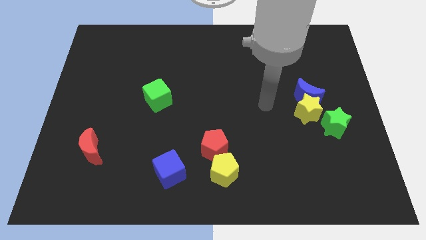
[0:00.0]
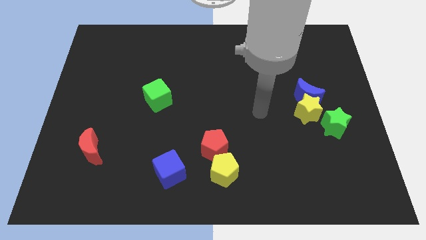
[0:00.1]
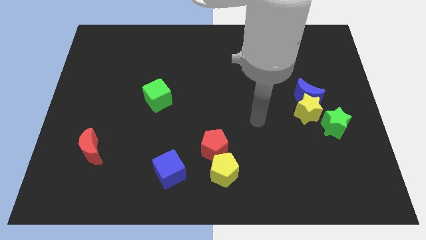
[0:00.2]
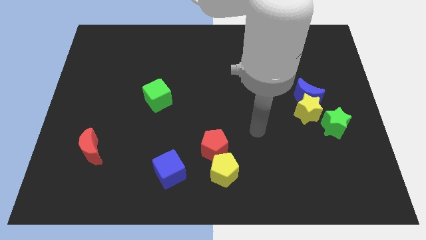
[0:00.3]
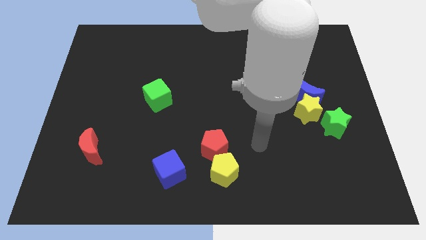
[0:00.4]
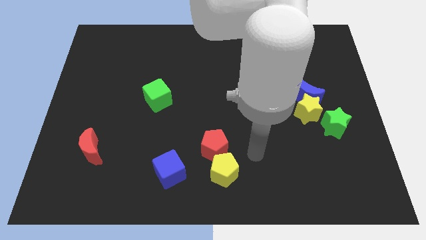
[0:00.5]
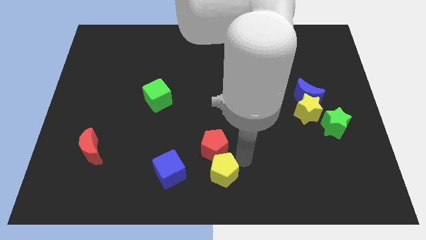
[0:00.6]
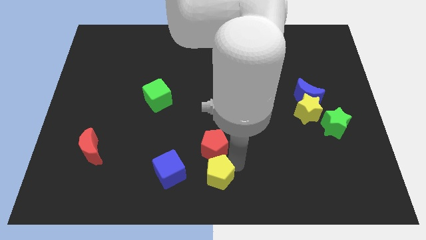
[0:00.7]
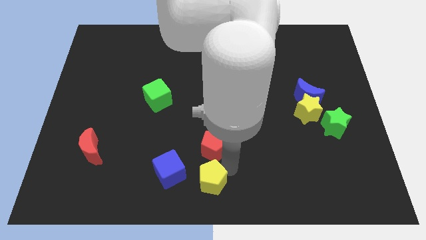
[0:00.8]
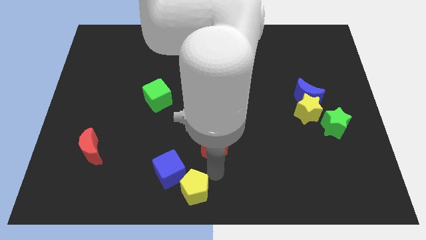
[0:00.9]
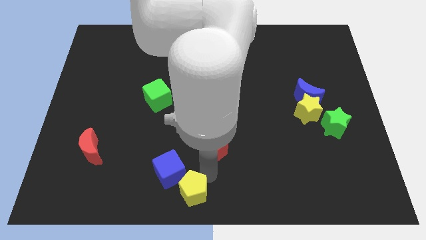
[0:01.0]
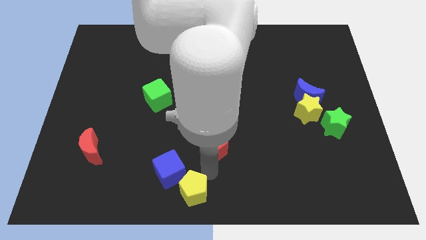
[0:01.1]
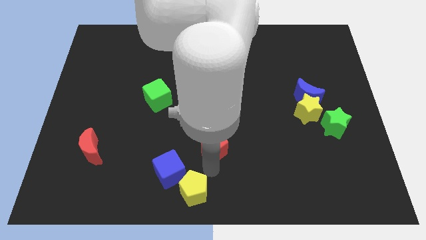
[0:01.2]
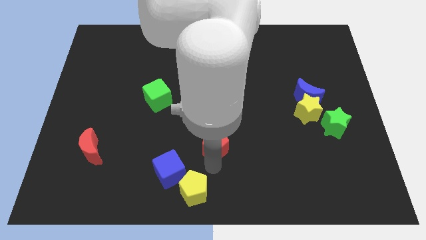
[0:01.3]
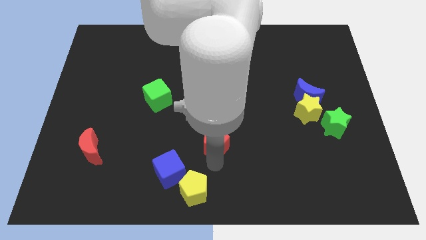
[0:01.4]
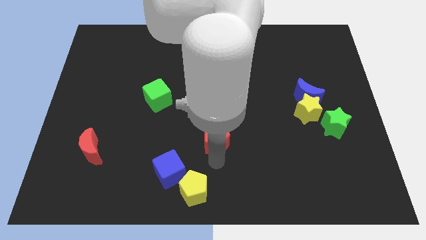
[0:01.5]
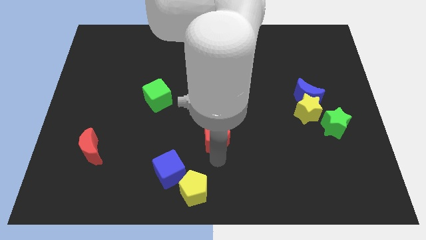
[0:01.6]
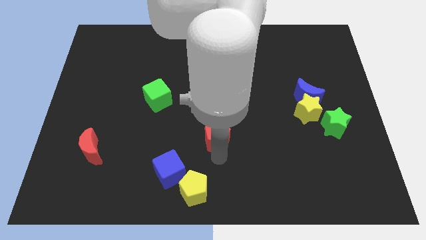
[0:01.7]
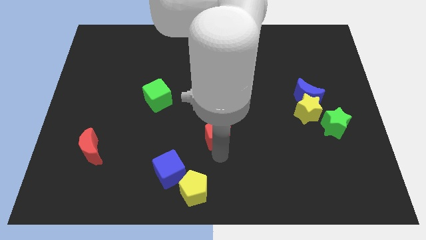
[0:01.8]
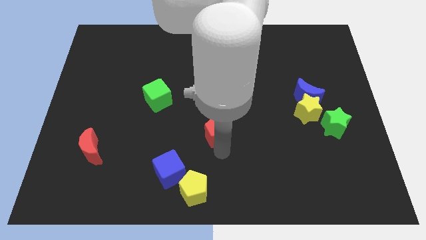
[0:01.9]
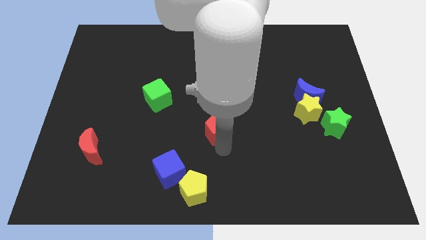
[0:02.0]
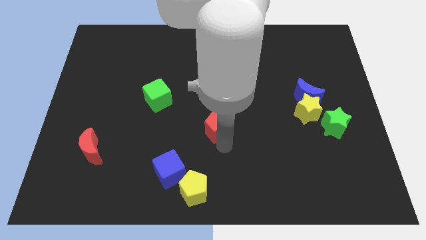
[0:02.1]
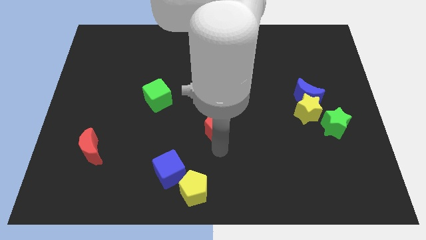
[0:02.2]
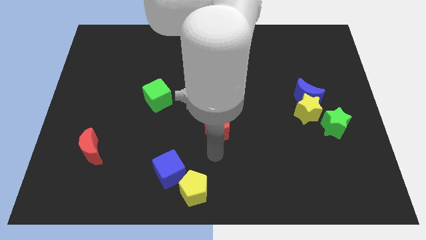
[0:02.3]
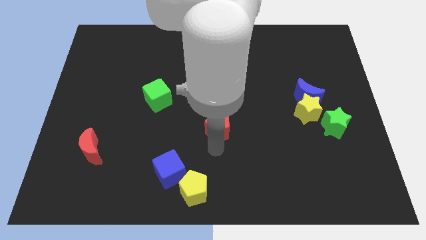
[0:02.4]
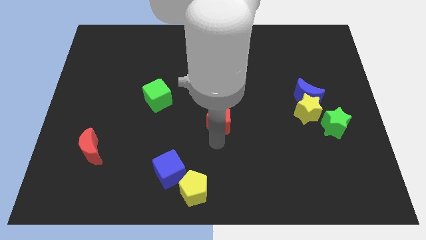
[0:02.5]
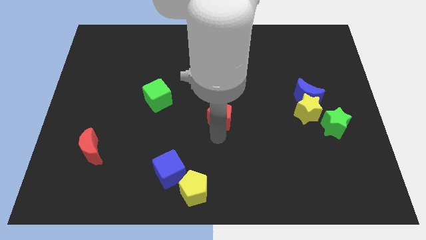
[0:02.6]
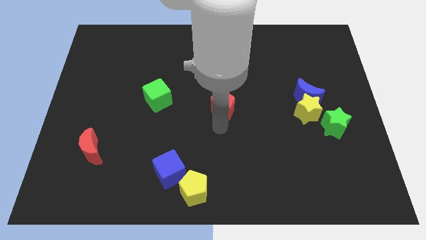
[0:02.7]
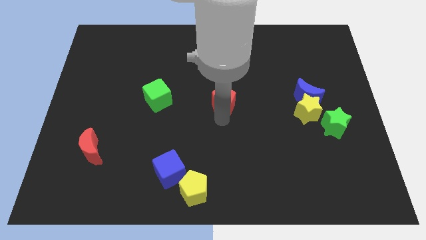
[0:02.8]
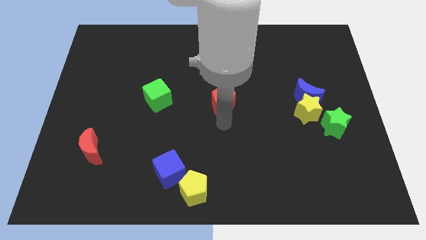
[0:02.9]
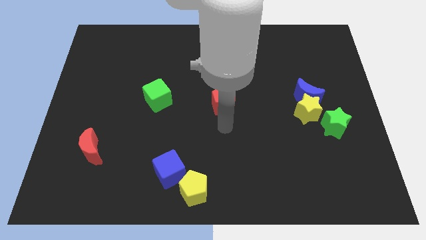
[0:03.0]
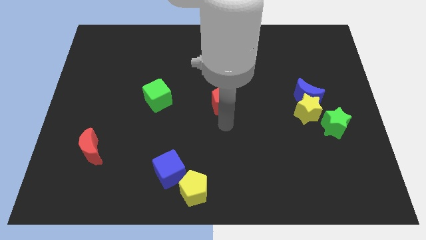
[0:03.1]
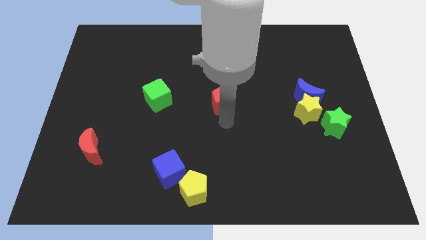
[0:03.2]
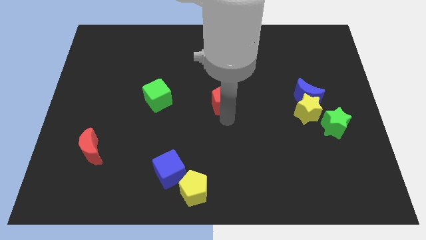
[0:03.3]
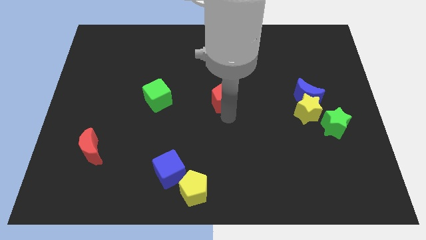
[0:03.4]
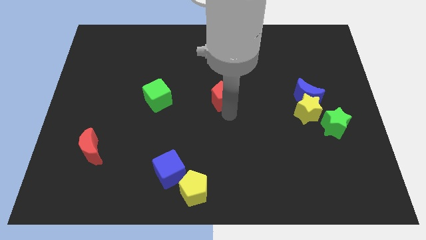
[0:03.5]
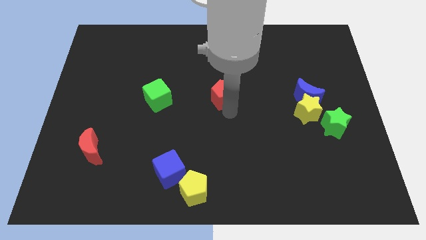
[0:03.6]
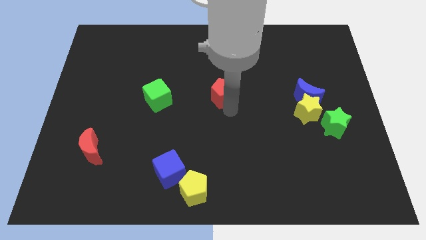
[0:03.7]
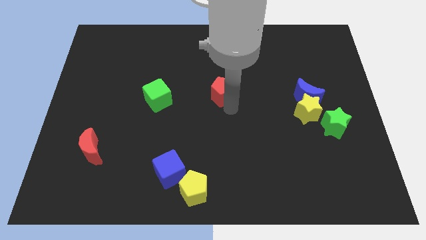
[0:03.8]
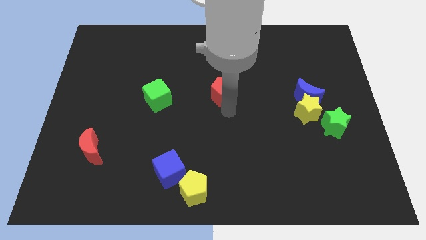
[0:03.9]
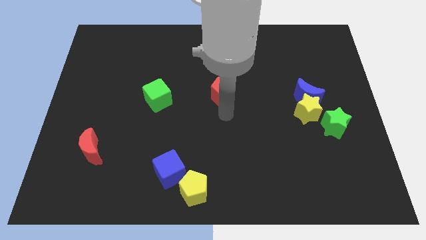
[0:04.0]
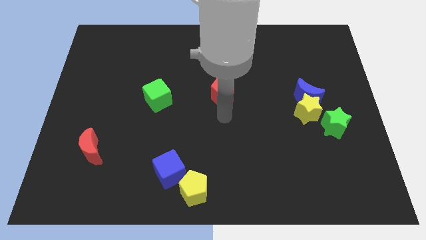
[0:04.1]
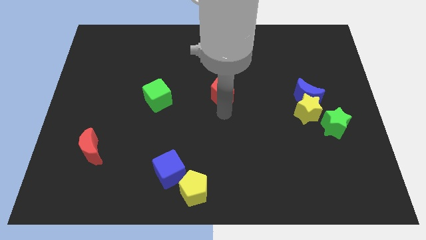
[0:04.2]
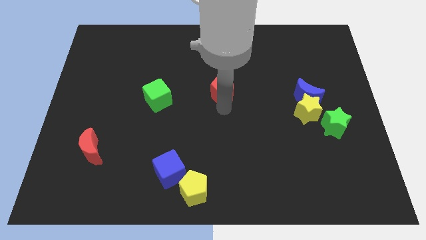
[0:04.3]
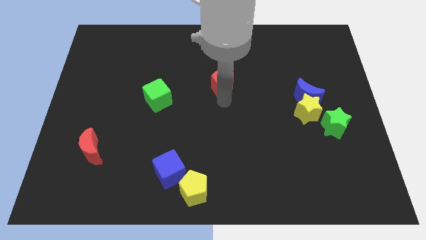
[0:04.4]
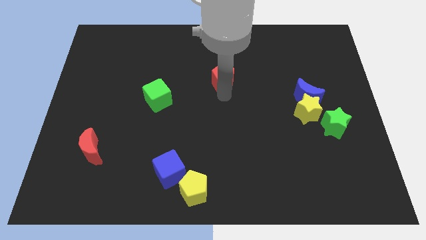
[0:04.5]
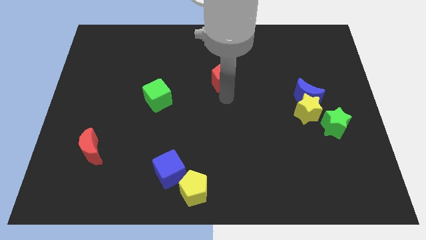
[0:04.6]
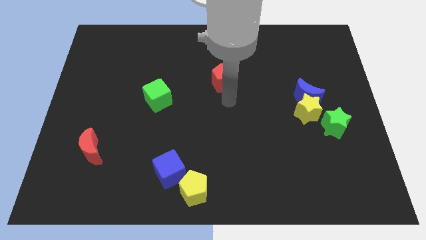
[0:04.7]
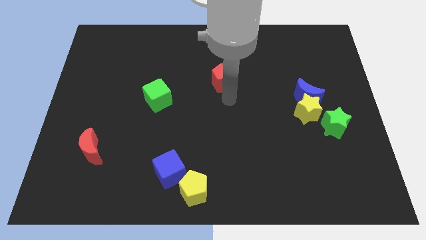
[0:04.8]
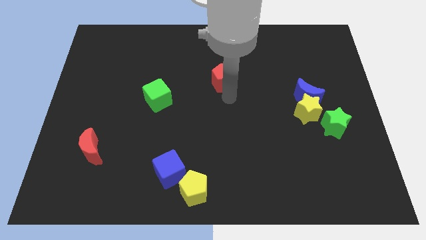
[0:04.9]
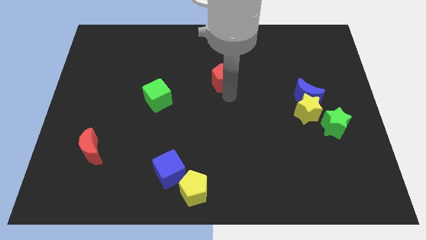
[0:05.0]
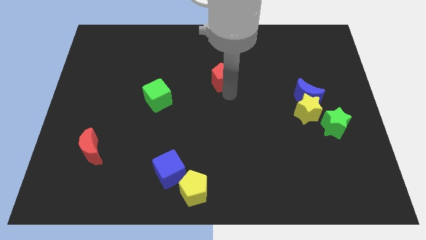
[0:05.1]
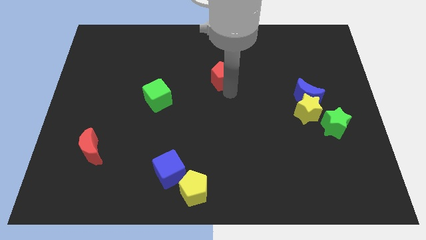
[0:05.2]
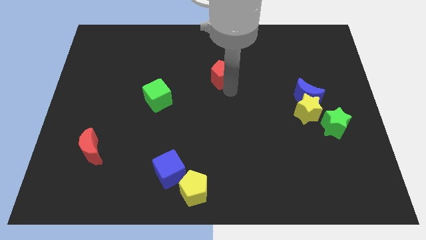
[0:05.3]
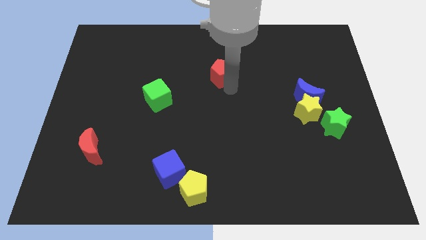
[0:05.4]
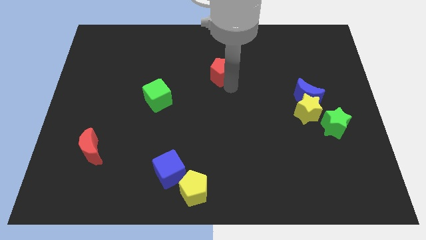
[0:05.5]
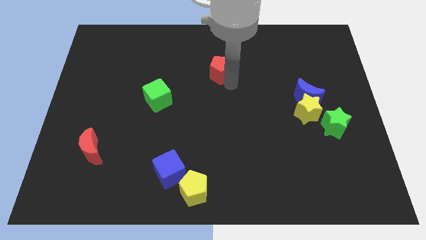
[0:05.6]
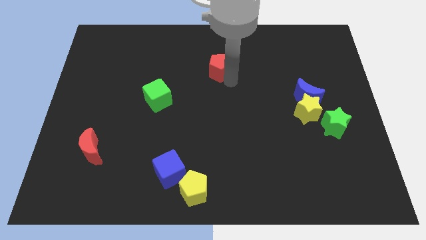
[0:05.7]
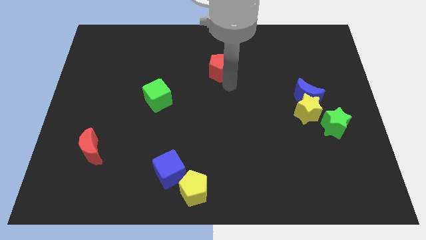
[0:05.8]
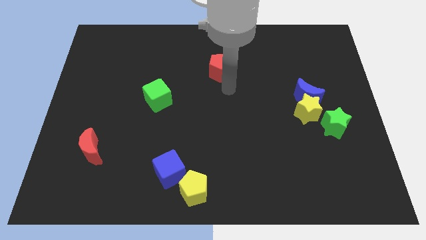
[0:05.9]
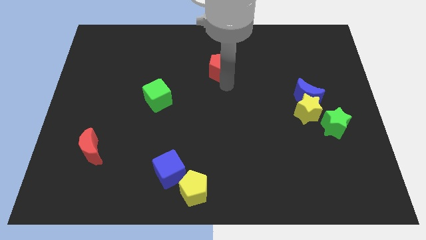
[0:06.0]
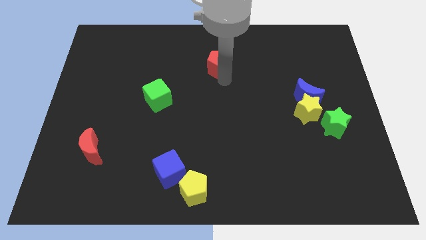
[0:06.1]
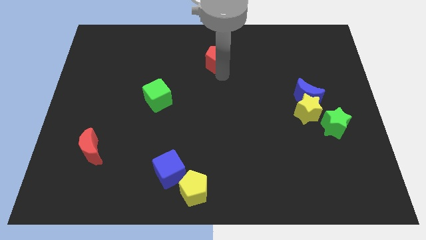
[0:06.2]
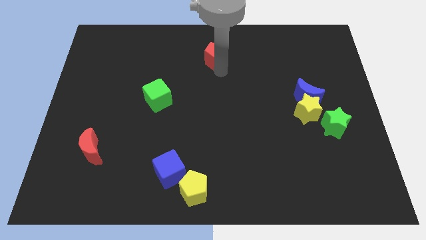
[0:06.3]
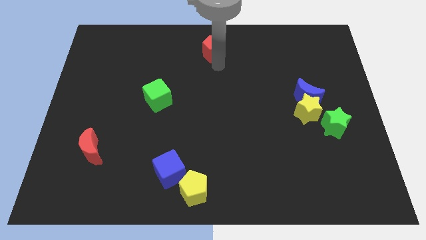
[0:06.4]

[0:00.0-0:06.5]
move the red pentagon to the top
